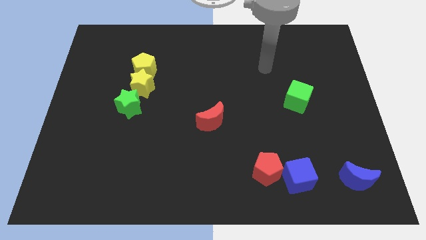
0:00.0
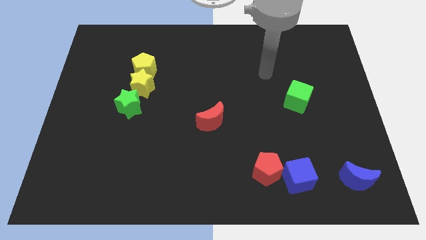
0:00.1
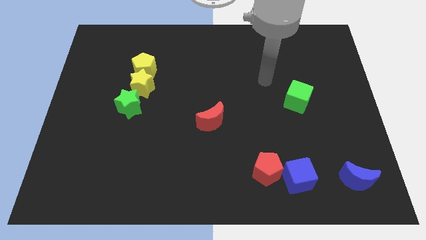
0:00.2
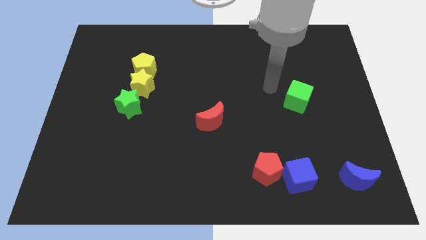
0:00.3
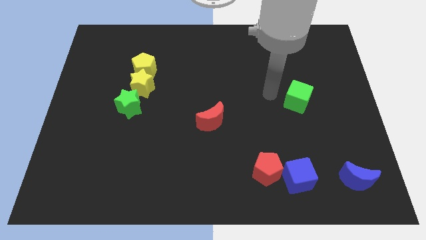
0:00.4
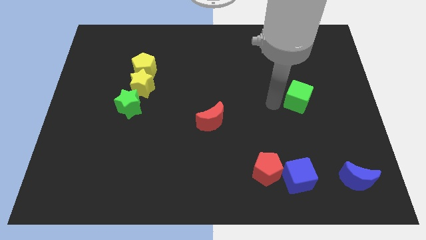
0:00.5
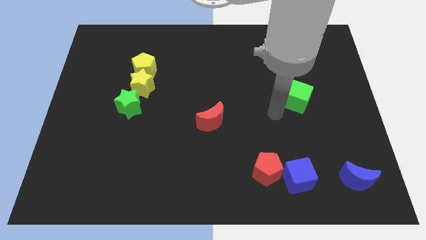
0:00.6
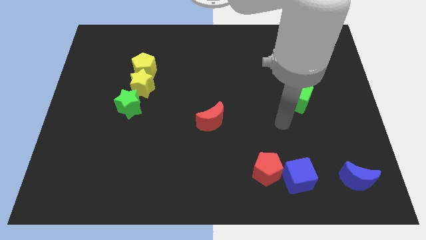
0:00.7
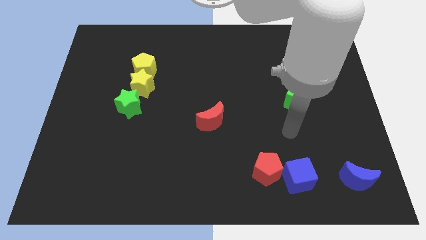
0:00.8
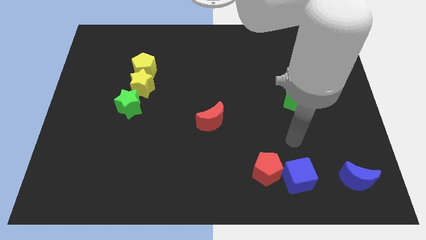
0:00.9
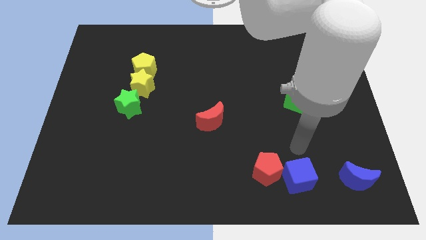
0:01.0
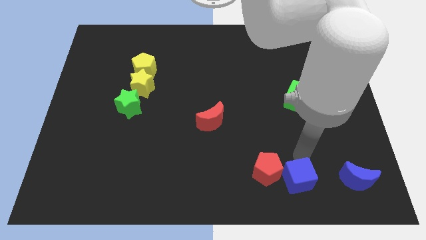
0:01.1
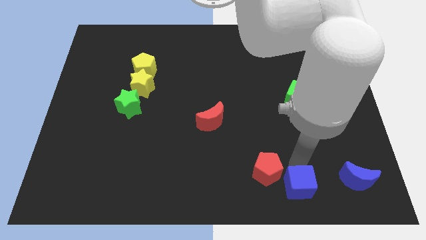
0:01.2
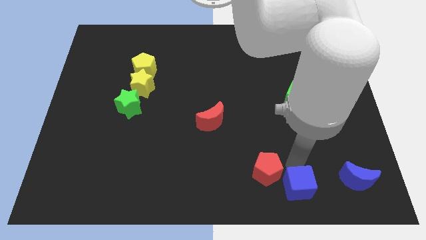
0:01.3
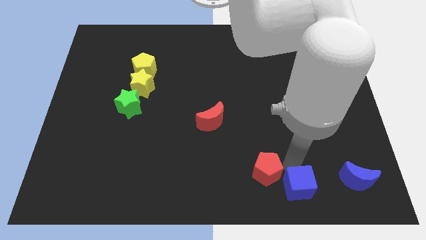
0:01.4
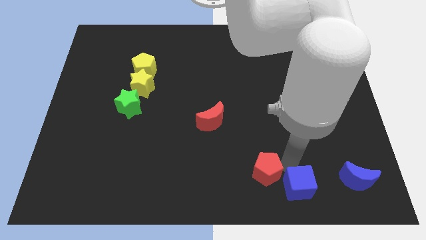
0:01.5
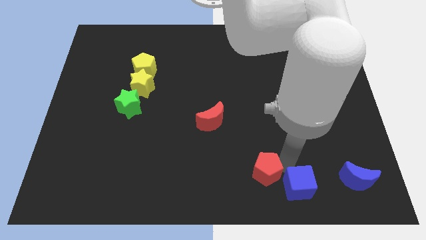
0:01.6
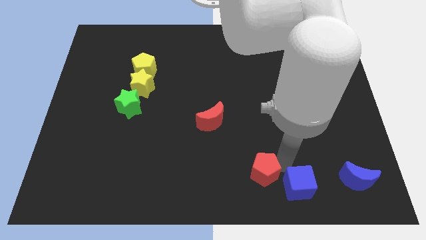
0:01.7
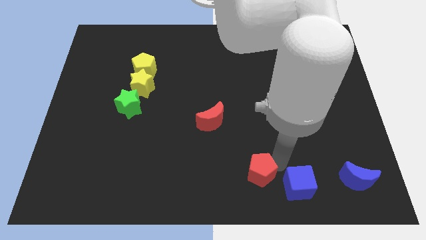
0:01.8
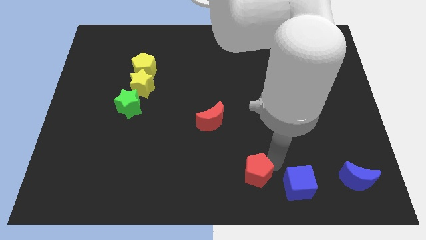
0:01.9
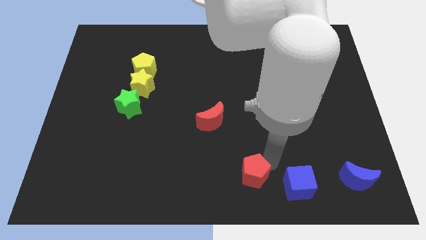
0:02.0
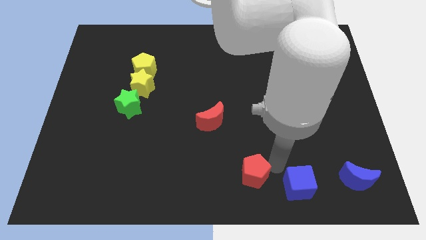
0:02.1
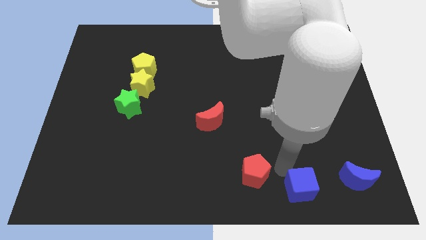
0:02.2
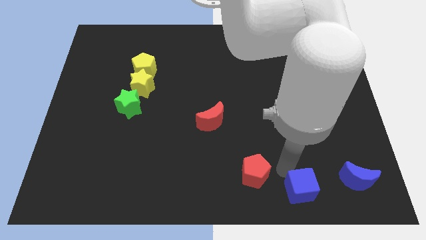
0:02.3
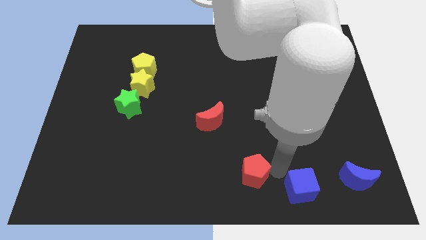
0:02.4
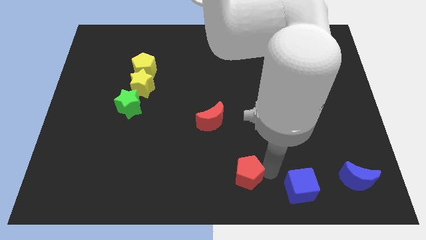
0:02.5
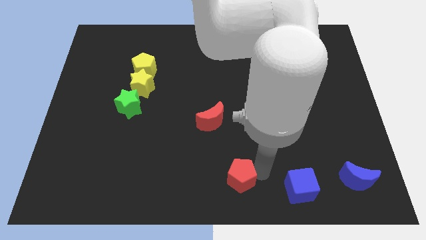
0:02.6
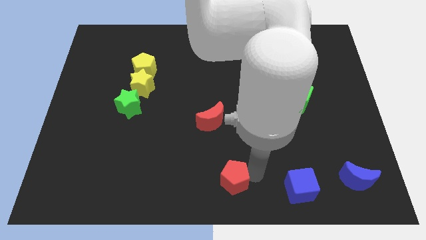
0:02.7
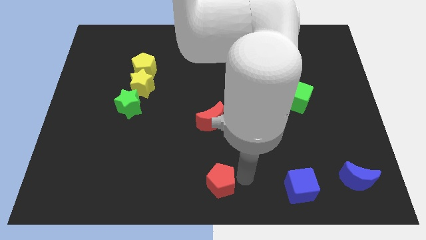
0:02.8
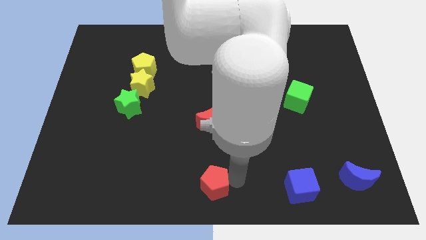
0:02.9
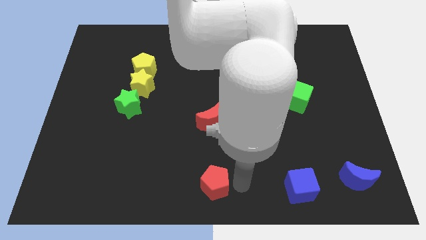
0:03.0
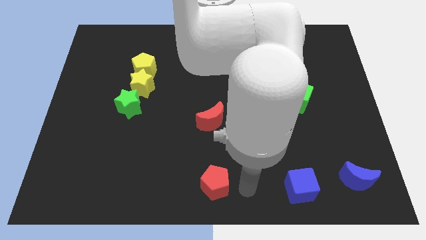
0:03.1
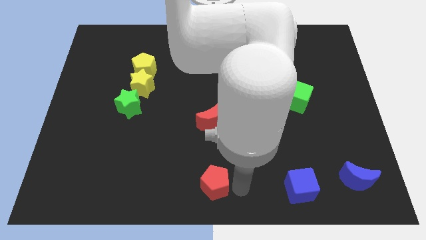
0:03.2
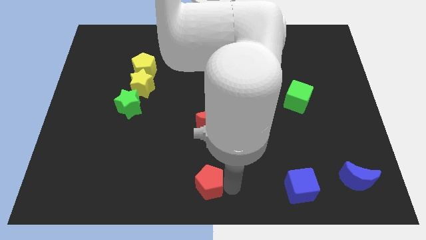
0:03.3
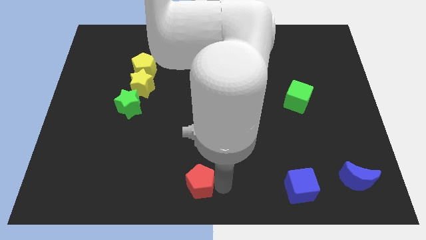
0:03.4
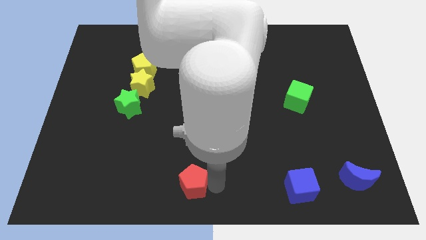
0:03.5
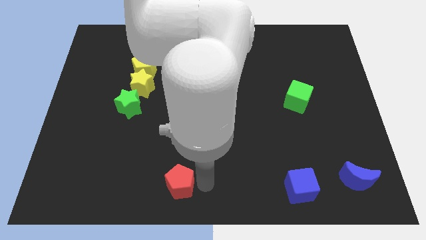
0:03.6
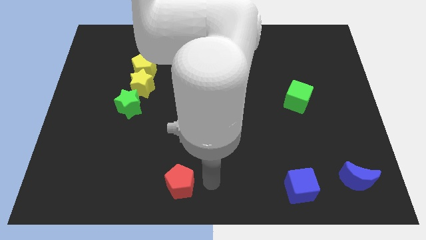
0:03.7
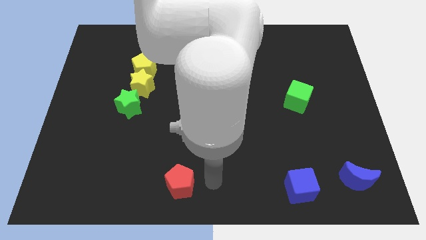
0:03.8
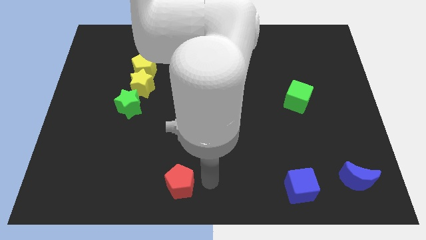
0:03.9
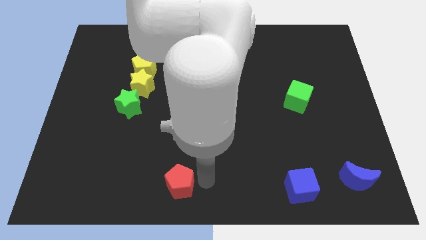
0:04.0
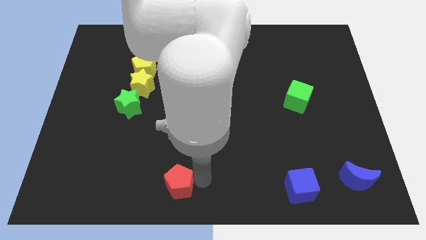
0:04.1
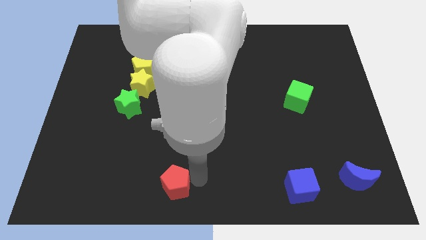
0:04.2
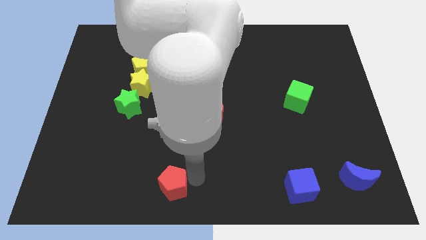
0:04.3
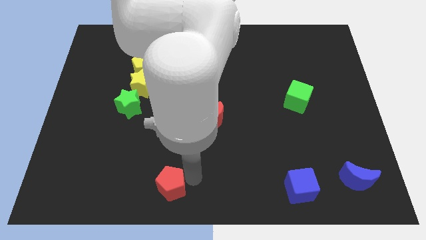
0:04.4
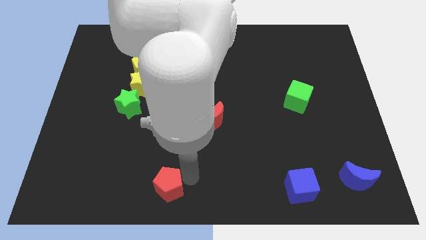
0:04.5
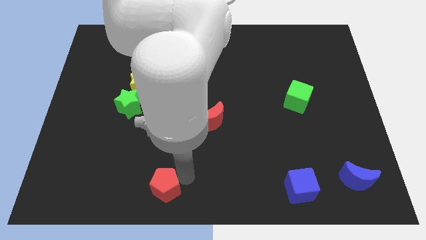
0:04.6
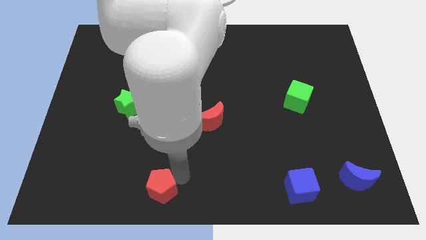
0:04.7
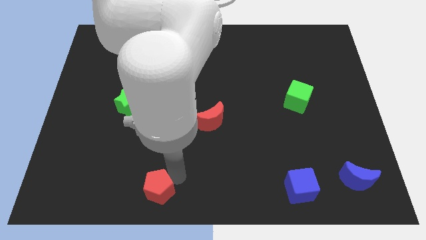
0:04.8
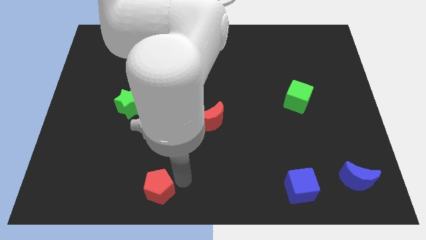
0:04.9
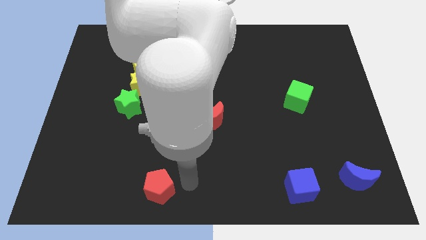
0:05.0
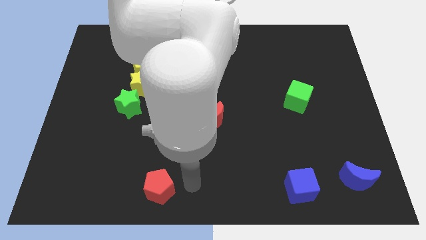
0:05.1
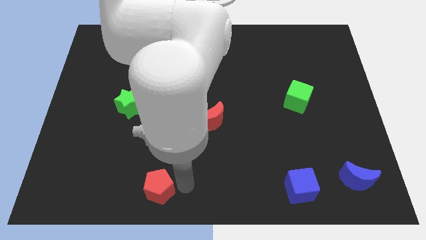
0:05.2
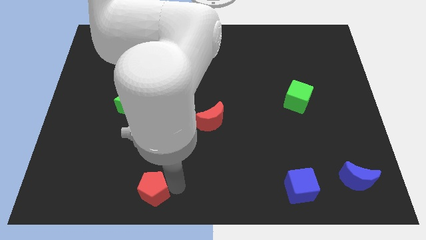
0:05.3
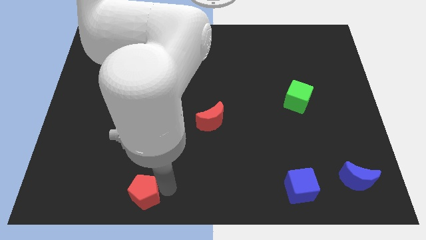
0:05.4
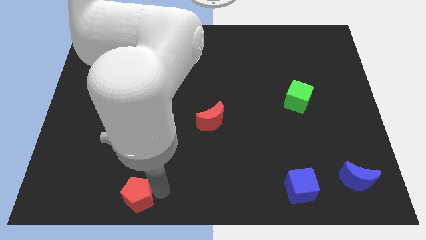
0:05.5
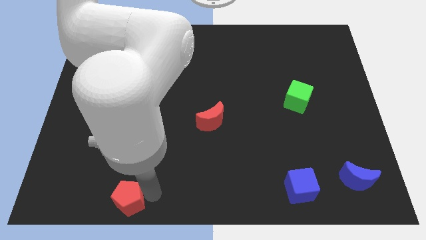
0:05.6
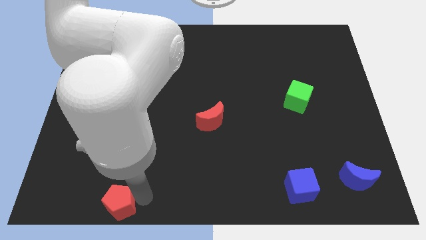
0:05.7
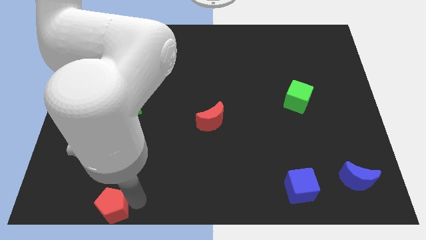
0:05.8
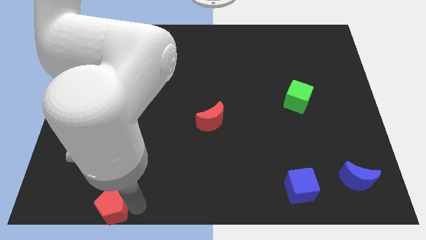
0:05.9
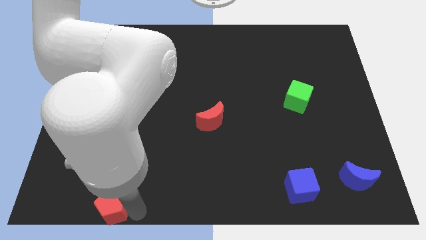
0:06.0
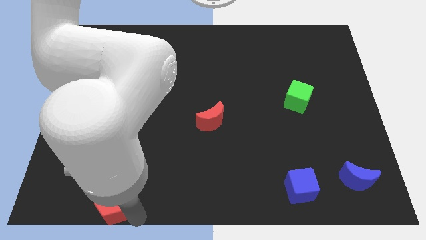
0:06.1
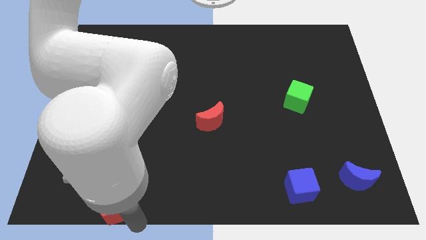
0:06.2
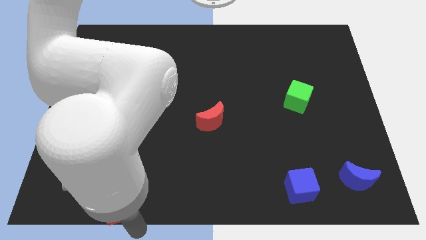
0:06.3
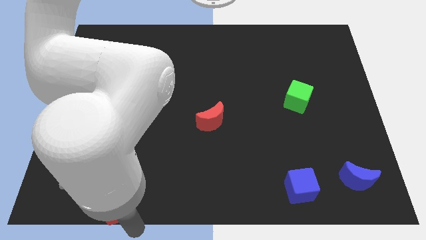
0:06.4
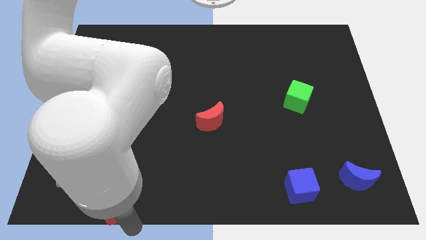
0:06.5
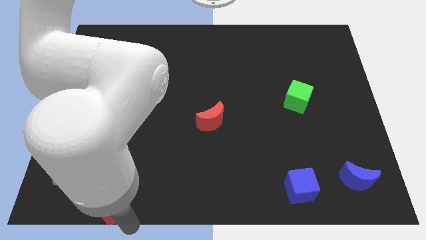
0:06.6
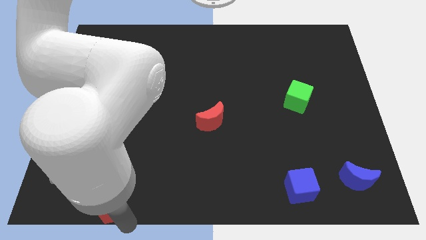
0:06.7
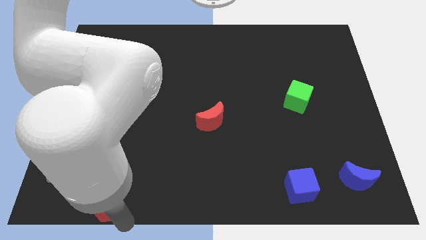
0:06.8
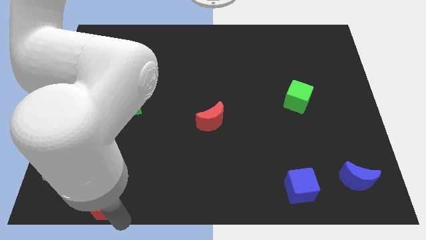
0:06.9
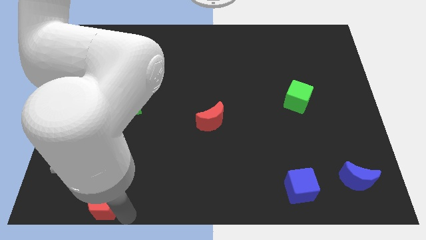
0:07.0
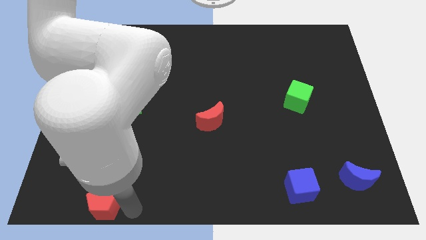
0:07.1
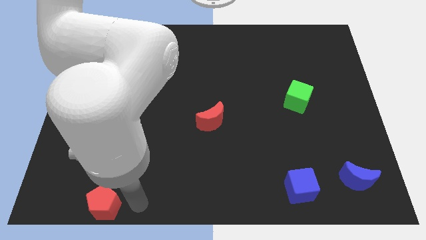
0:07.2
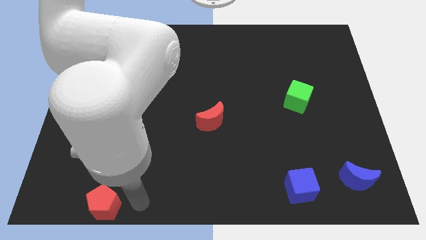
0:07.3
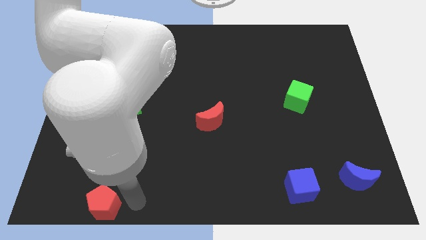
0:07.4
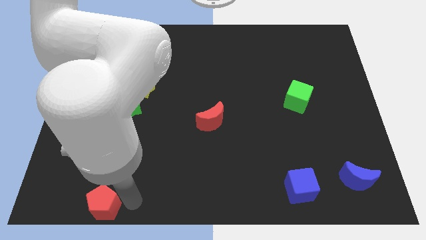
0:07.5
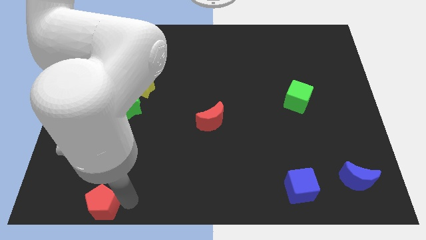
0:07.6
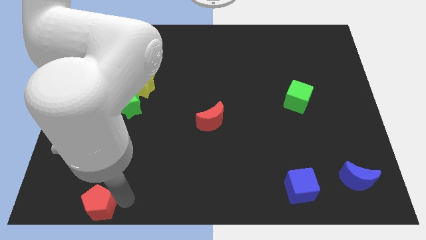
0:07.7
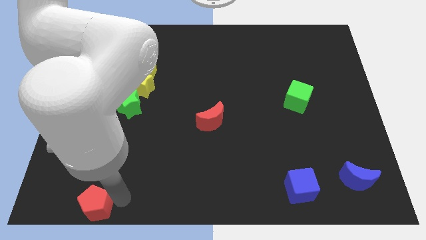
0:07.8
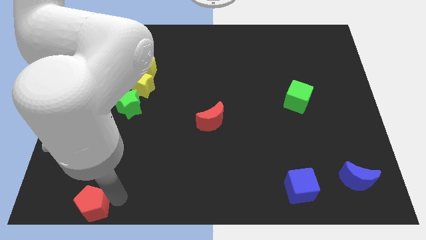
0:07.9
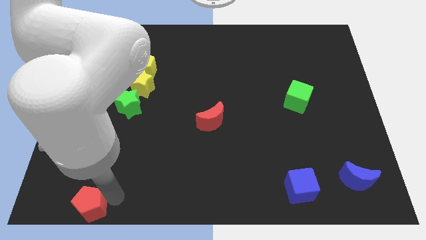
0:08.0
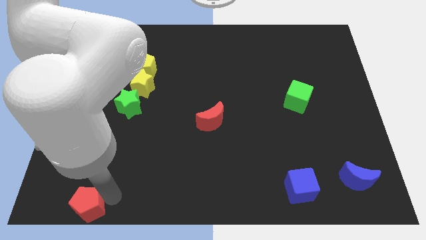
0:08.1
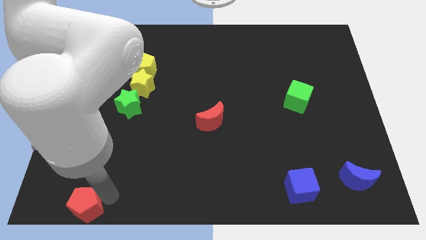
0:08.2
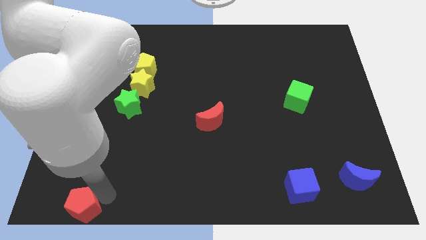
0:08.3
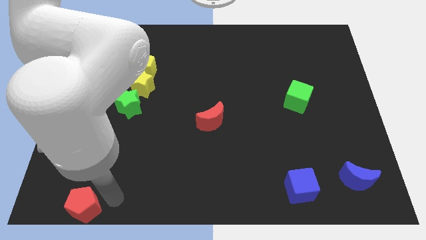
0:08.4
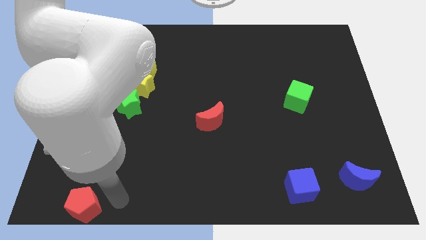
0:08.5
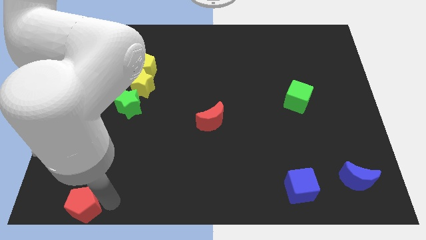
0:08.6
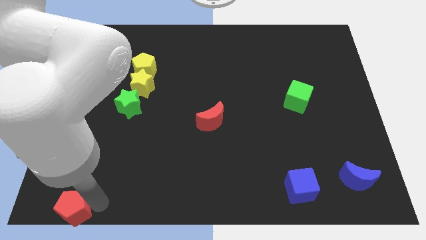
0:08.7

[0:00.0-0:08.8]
push the red pentagon to the bottom left of the board
